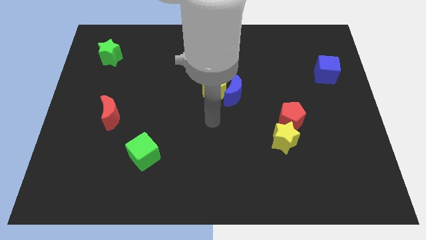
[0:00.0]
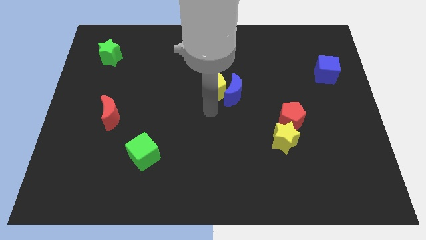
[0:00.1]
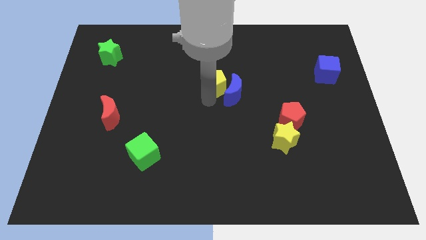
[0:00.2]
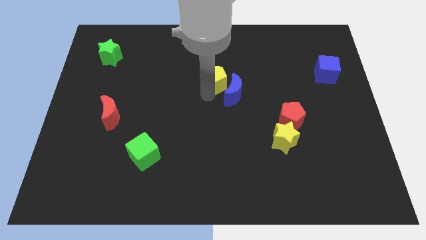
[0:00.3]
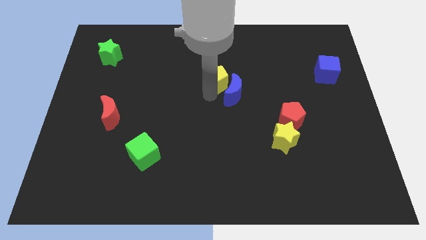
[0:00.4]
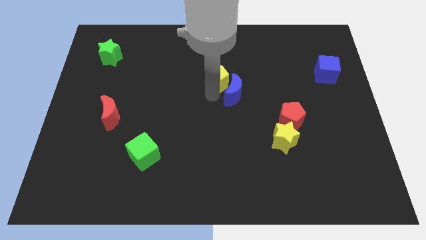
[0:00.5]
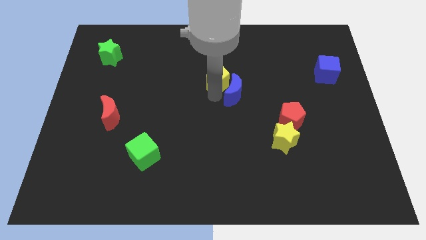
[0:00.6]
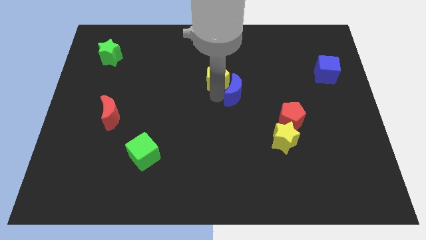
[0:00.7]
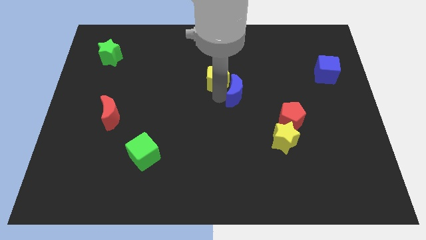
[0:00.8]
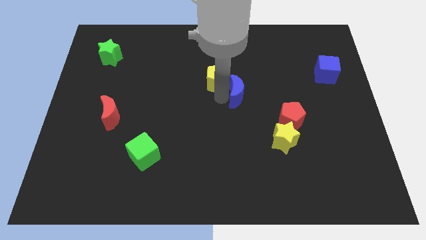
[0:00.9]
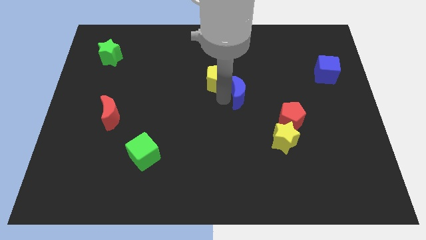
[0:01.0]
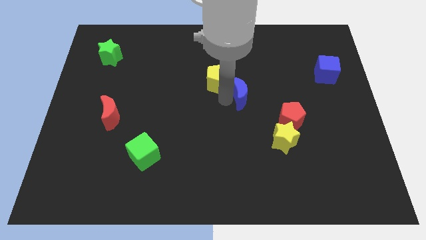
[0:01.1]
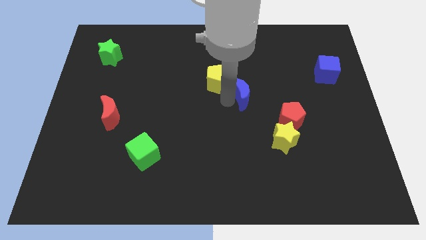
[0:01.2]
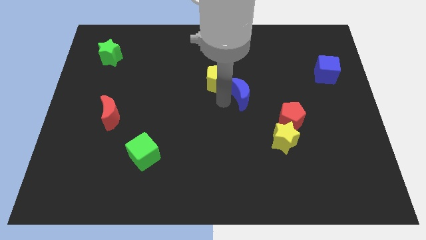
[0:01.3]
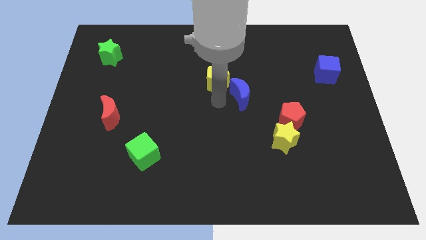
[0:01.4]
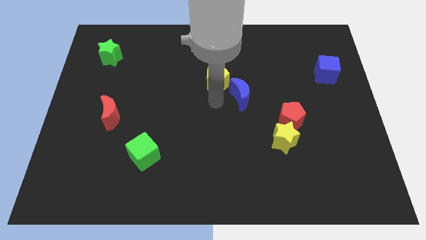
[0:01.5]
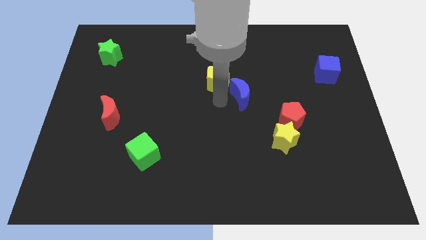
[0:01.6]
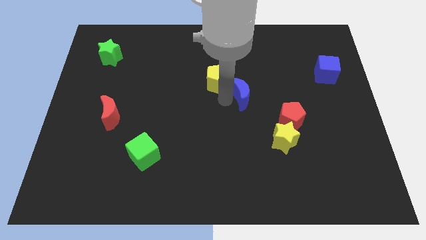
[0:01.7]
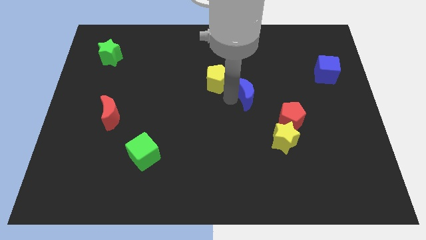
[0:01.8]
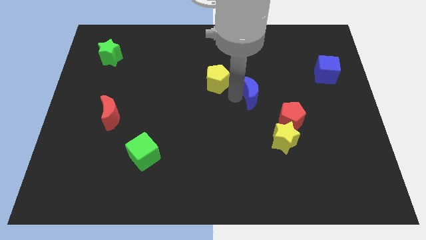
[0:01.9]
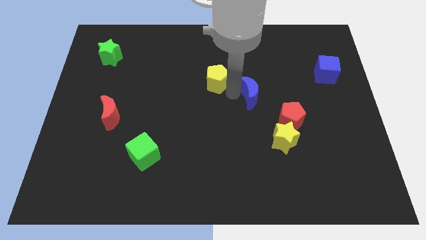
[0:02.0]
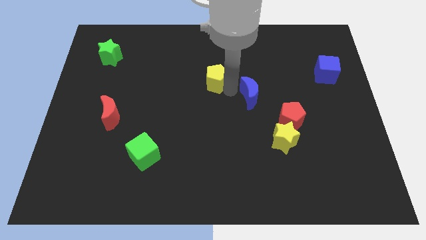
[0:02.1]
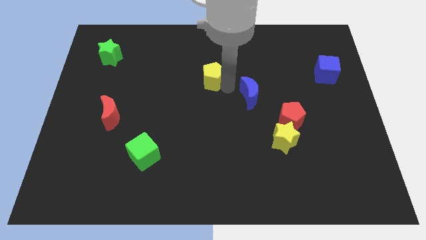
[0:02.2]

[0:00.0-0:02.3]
separate the blue moon from the yellow pentagon

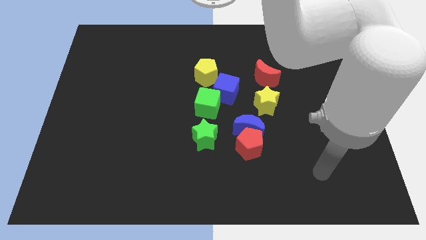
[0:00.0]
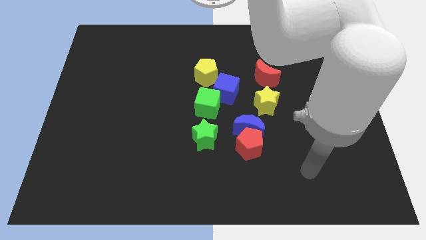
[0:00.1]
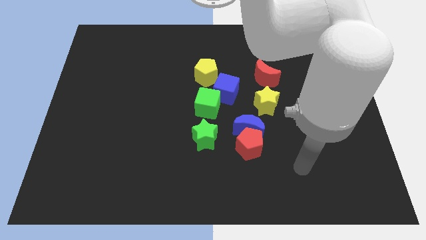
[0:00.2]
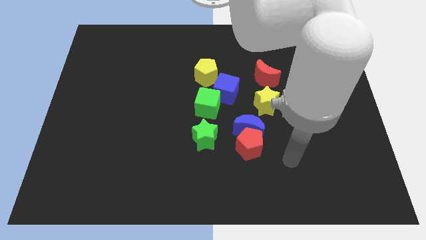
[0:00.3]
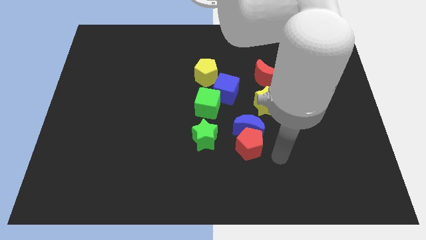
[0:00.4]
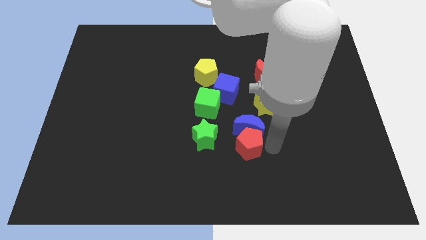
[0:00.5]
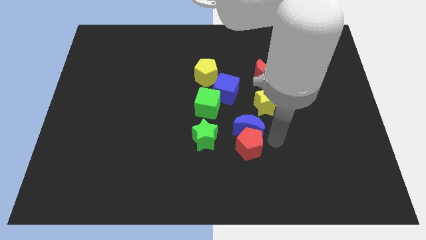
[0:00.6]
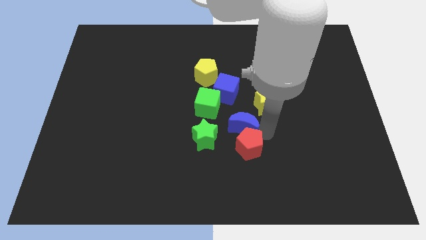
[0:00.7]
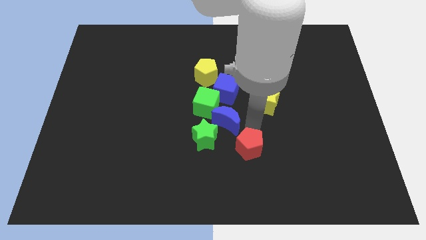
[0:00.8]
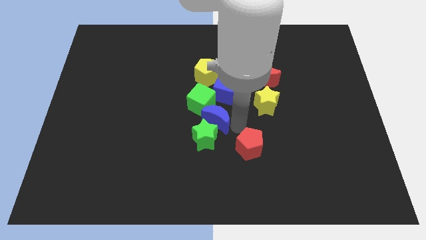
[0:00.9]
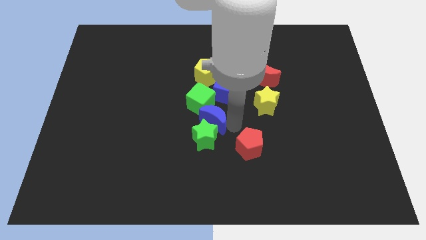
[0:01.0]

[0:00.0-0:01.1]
separate the red pentagon from the blue moon and green star

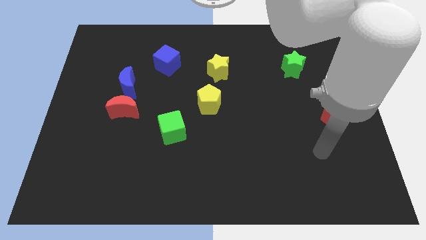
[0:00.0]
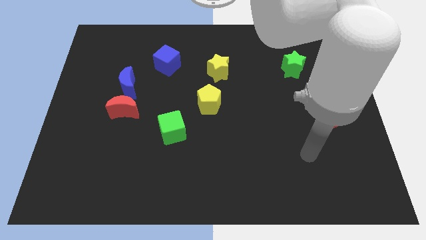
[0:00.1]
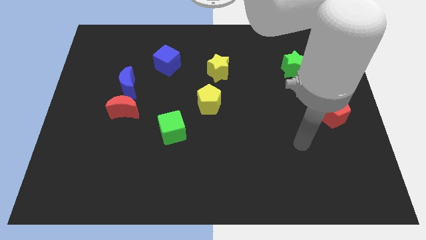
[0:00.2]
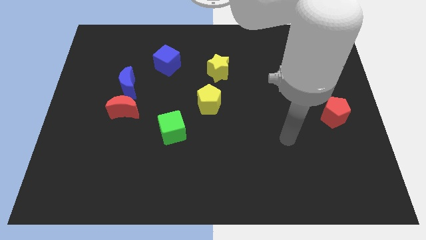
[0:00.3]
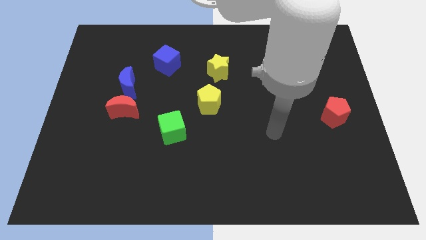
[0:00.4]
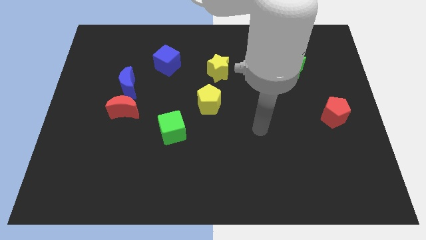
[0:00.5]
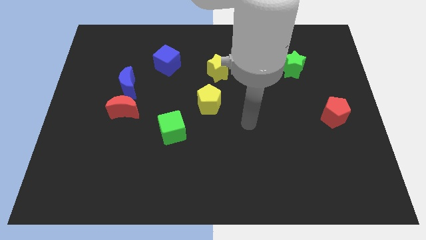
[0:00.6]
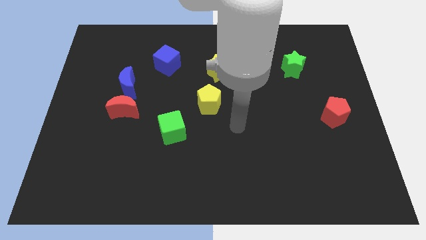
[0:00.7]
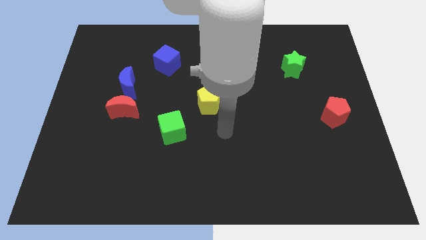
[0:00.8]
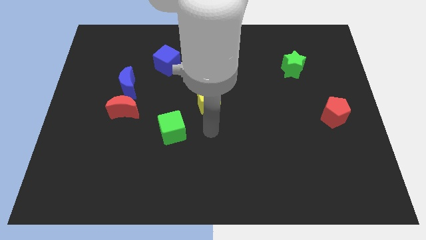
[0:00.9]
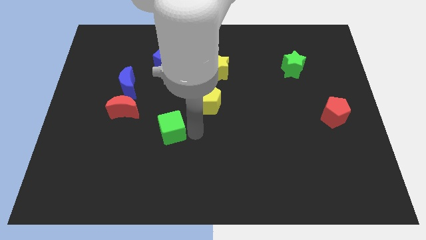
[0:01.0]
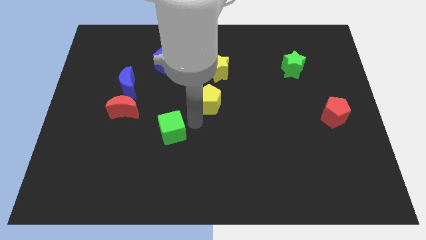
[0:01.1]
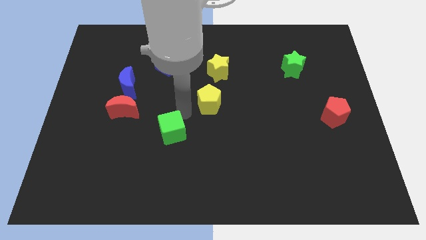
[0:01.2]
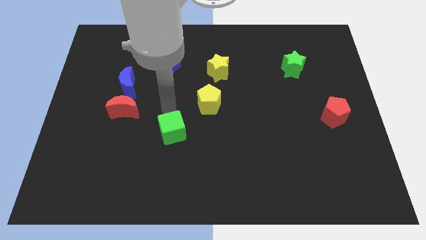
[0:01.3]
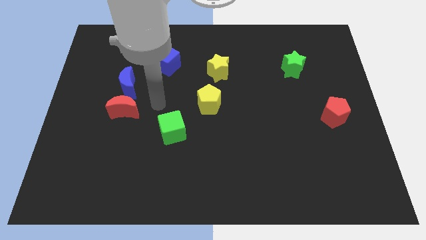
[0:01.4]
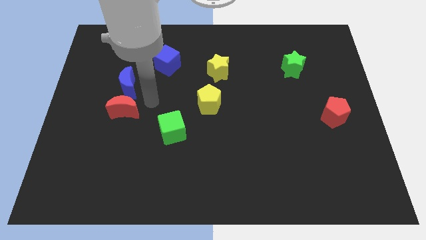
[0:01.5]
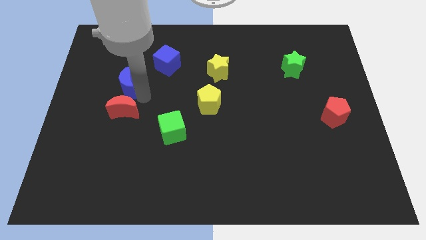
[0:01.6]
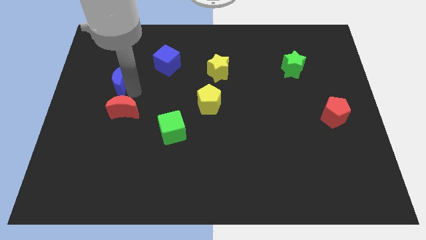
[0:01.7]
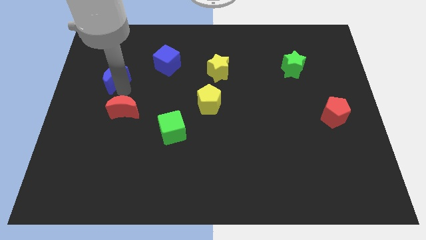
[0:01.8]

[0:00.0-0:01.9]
pull the red moon apart from the blue moon

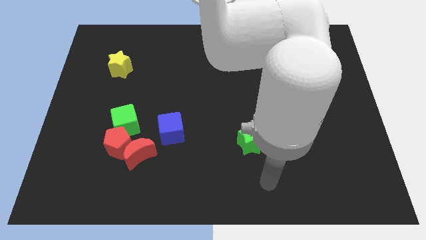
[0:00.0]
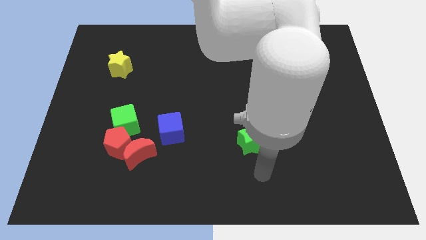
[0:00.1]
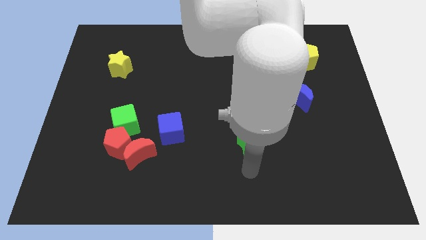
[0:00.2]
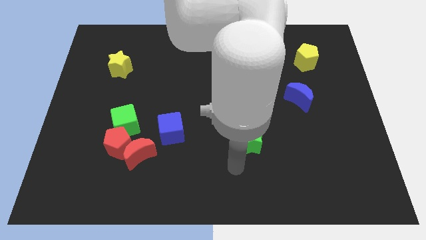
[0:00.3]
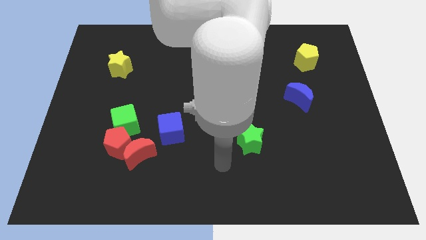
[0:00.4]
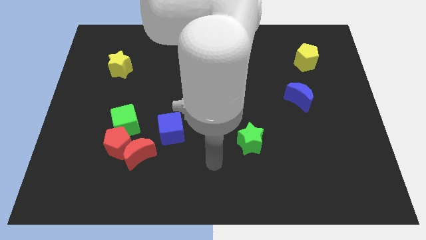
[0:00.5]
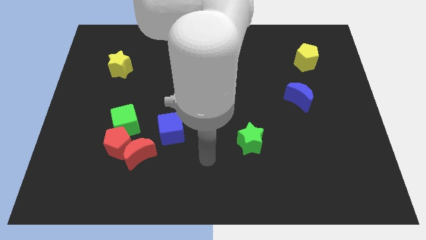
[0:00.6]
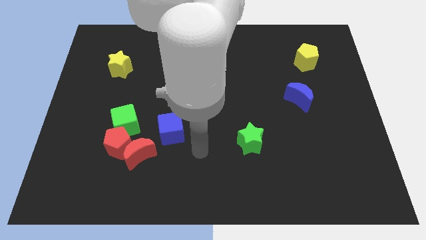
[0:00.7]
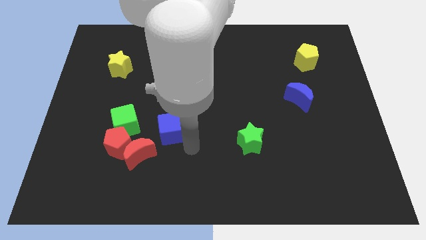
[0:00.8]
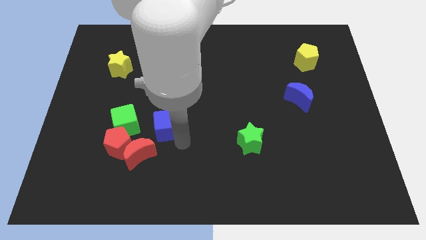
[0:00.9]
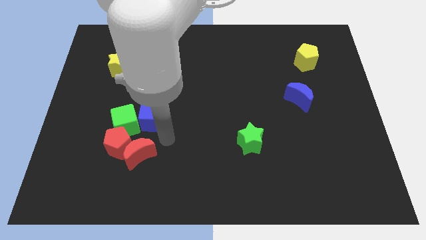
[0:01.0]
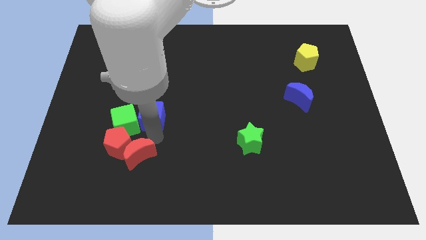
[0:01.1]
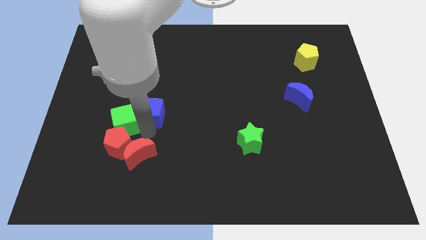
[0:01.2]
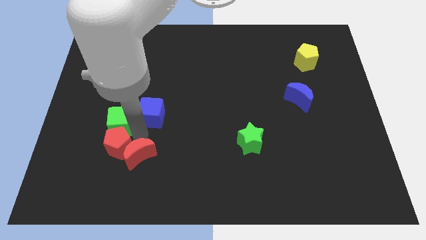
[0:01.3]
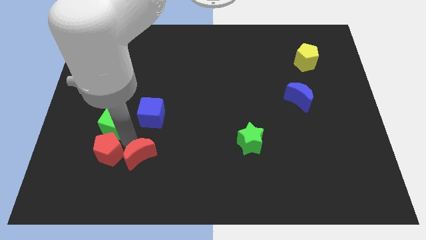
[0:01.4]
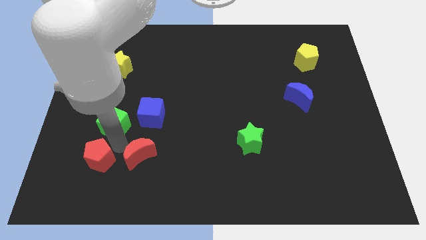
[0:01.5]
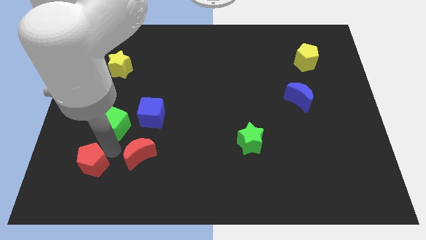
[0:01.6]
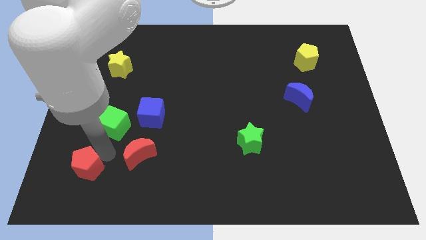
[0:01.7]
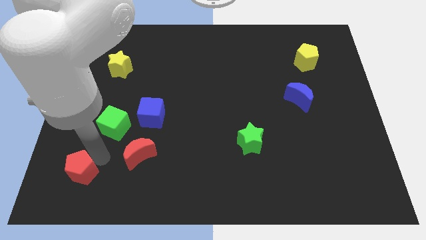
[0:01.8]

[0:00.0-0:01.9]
move the red pentagon away from the red moon and green cube

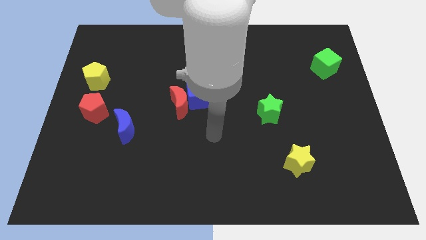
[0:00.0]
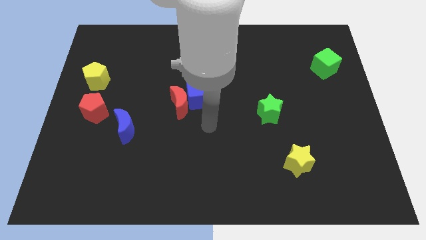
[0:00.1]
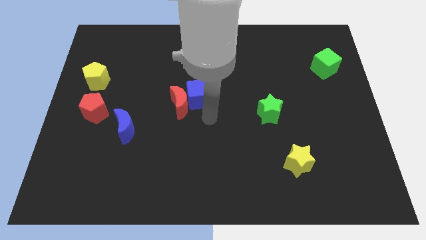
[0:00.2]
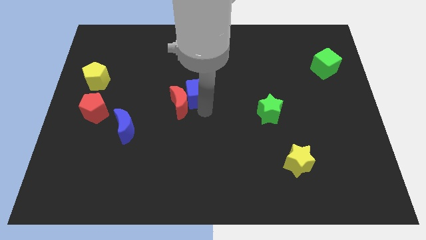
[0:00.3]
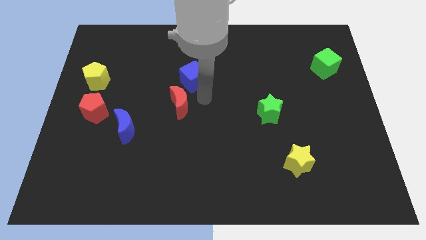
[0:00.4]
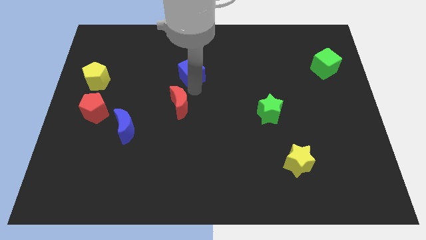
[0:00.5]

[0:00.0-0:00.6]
move the red moon away from the blue cube

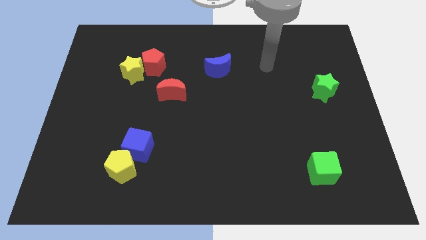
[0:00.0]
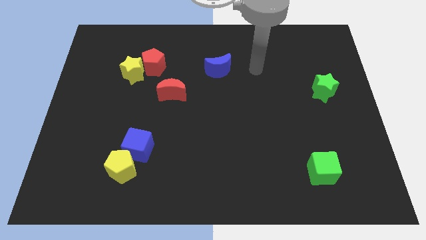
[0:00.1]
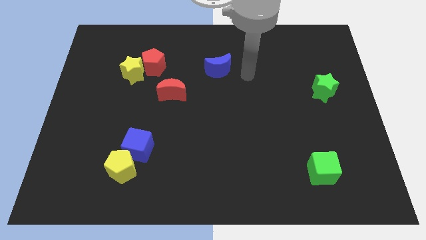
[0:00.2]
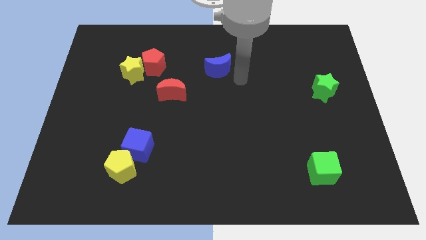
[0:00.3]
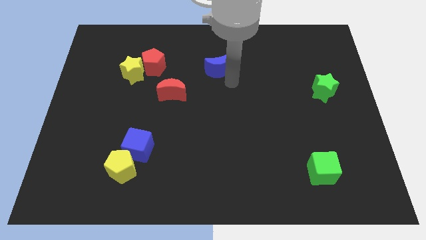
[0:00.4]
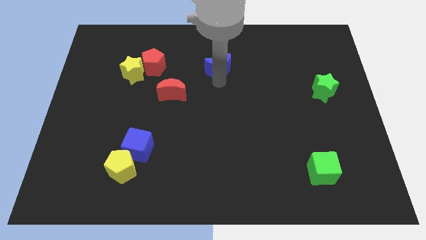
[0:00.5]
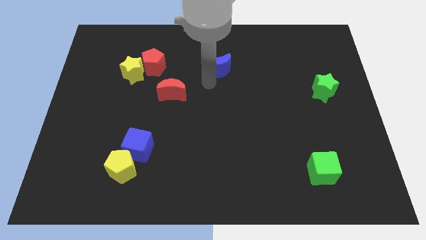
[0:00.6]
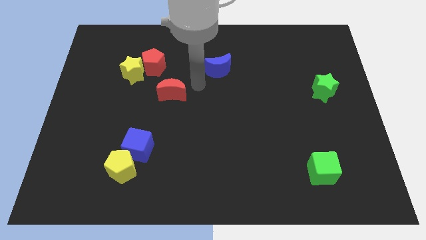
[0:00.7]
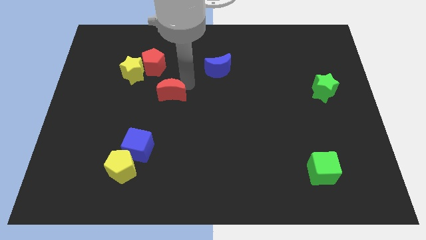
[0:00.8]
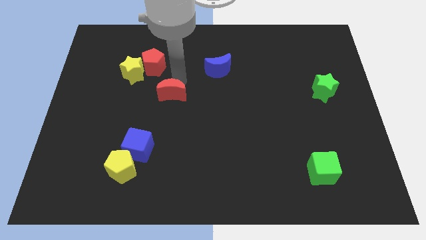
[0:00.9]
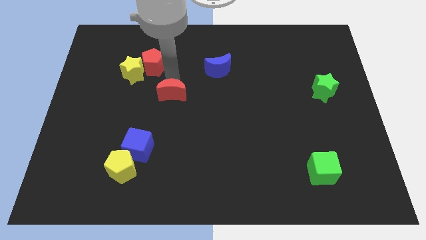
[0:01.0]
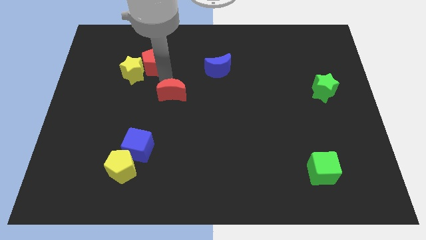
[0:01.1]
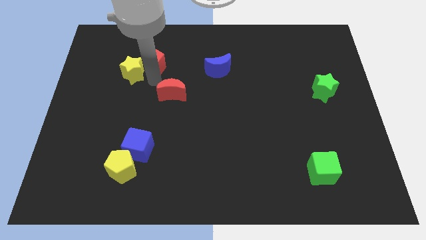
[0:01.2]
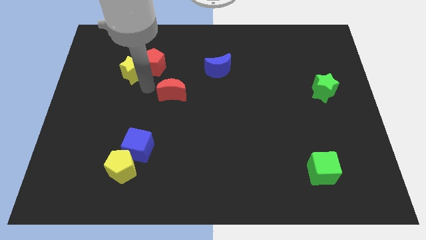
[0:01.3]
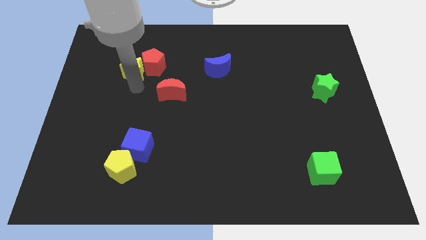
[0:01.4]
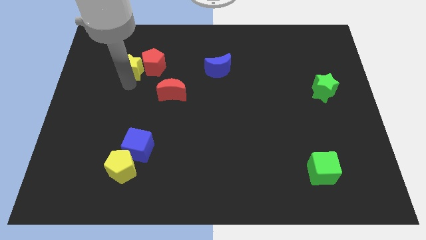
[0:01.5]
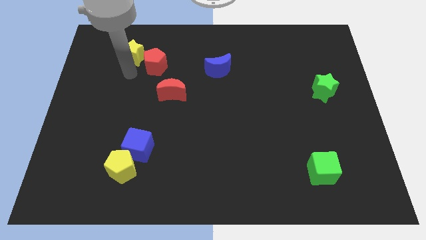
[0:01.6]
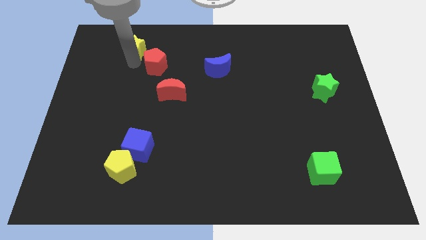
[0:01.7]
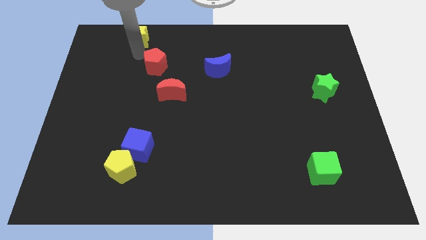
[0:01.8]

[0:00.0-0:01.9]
move the red pentagon away from the yellow star
